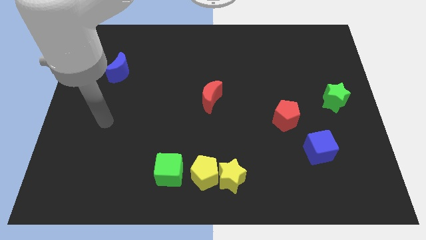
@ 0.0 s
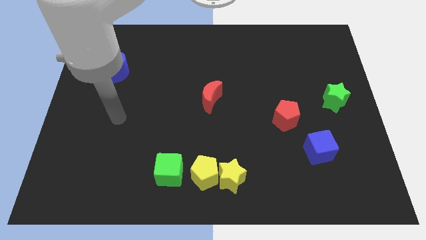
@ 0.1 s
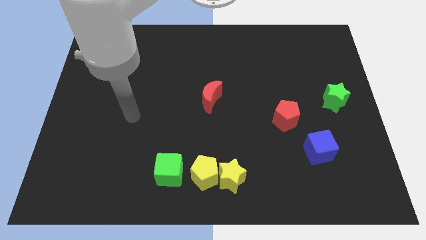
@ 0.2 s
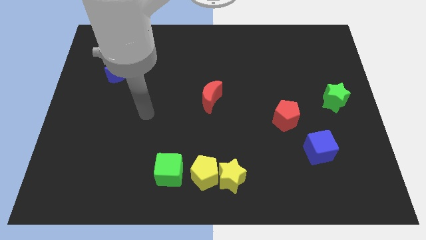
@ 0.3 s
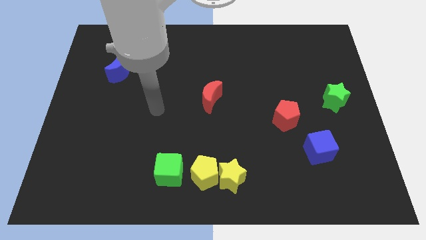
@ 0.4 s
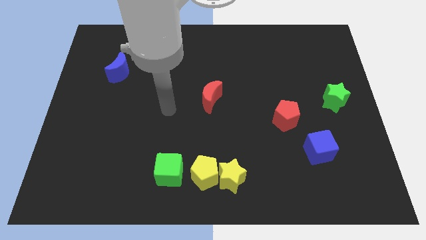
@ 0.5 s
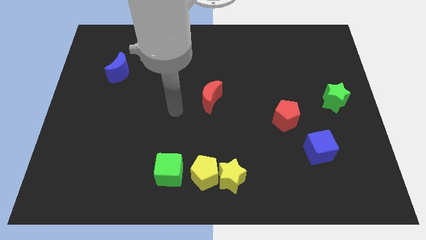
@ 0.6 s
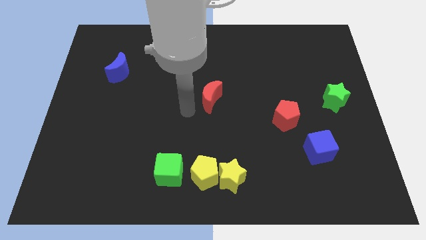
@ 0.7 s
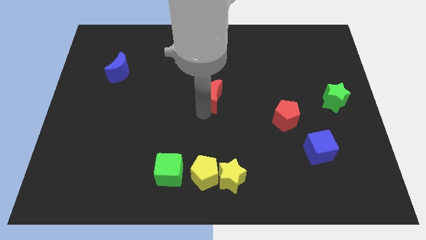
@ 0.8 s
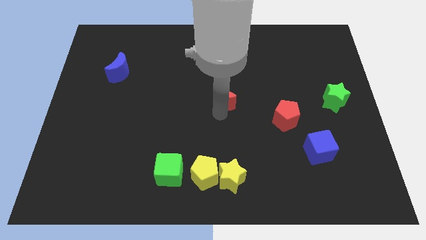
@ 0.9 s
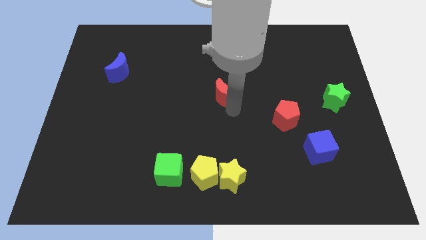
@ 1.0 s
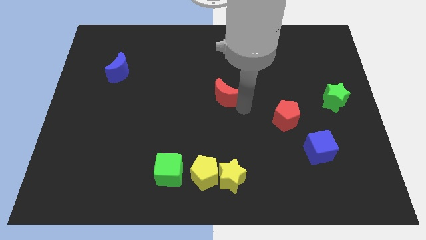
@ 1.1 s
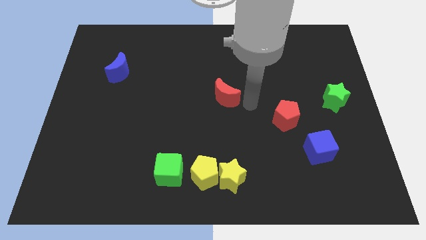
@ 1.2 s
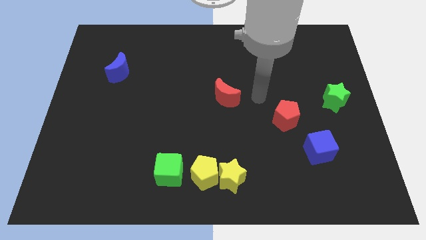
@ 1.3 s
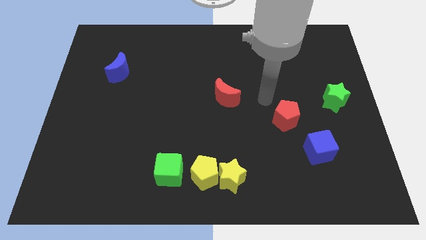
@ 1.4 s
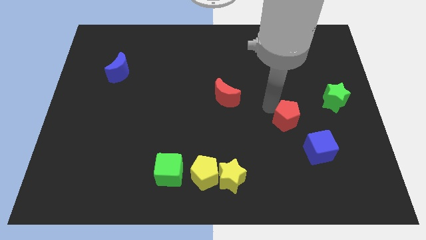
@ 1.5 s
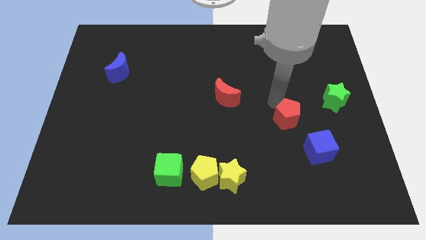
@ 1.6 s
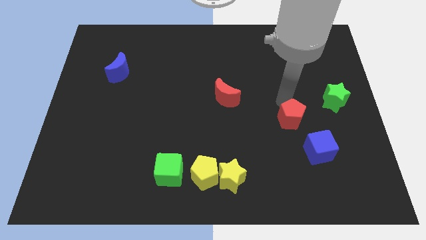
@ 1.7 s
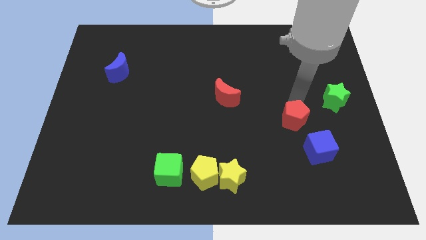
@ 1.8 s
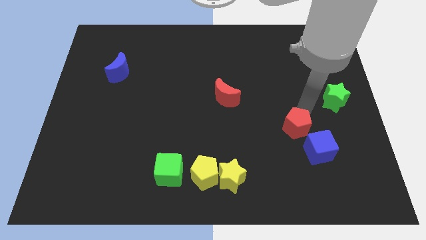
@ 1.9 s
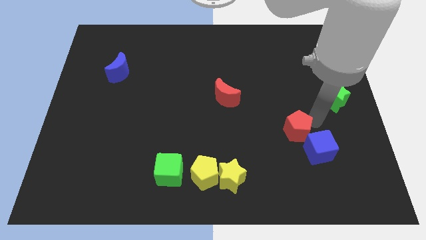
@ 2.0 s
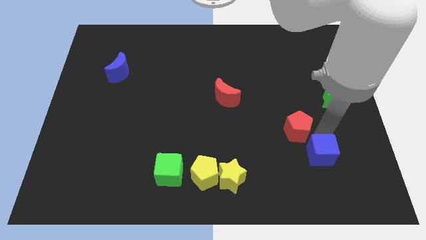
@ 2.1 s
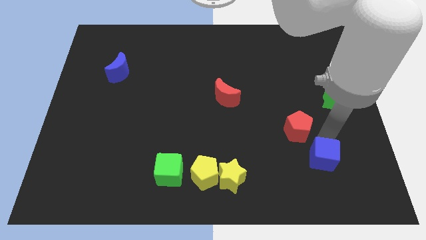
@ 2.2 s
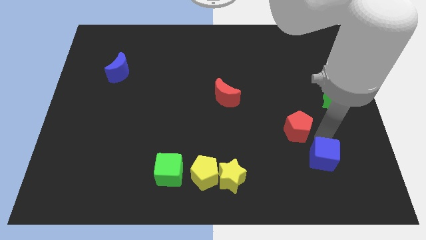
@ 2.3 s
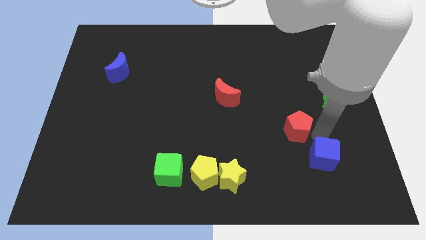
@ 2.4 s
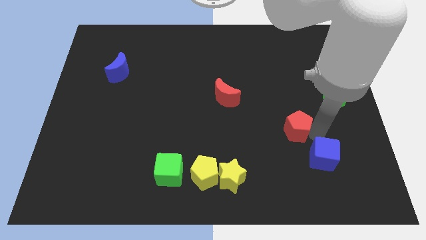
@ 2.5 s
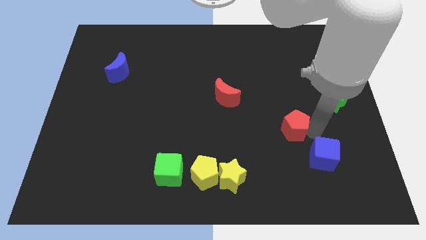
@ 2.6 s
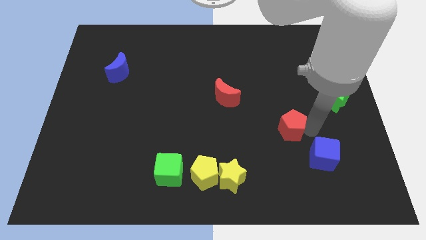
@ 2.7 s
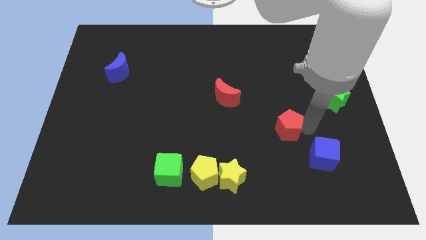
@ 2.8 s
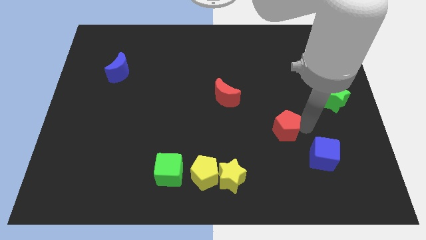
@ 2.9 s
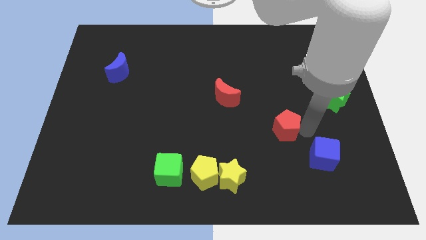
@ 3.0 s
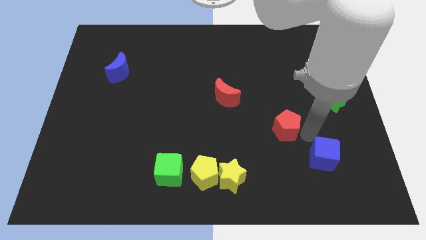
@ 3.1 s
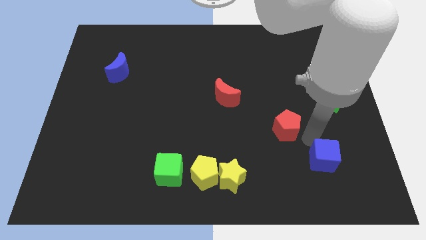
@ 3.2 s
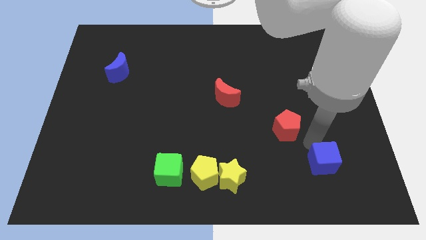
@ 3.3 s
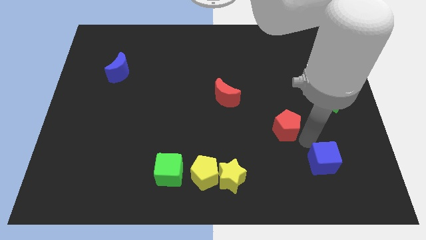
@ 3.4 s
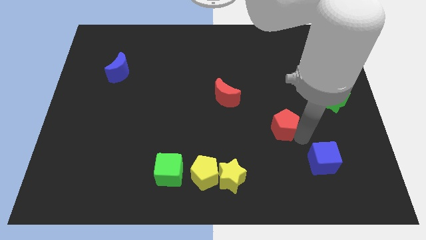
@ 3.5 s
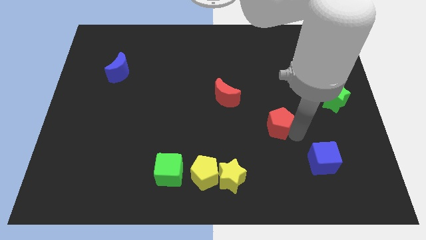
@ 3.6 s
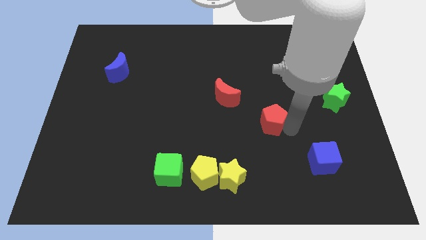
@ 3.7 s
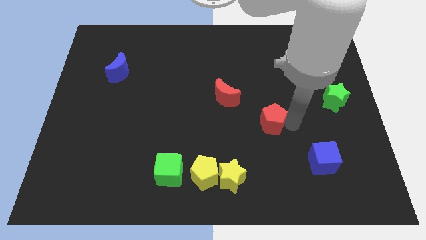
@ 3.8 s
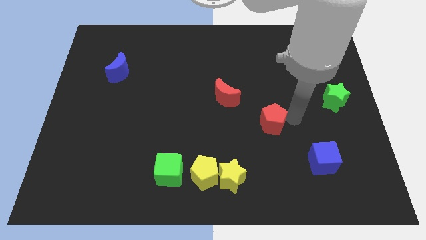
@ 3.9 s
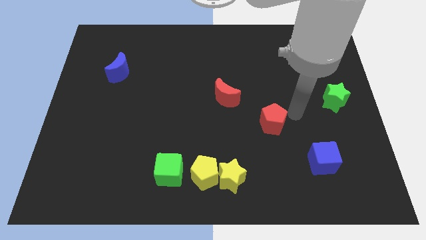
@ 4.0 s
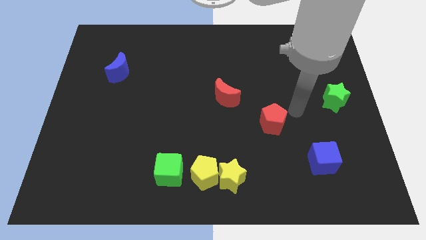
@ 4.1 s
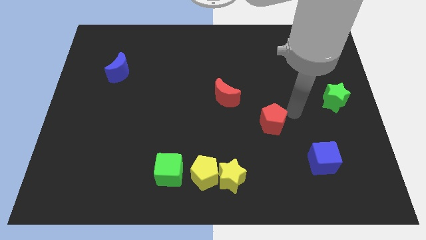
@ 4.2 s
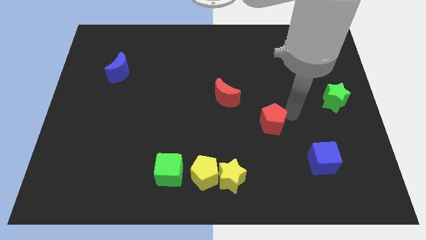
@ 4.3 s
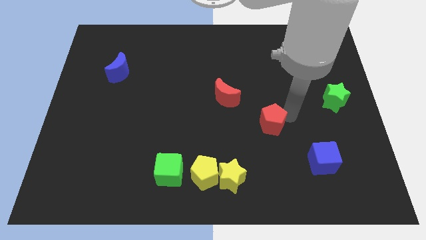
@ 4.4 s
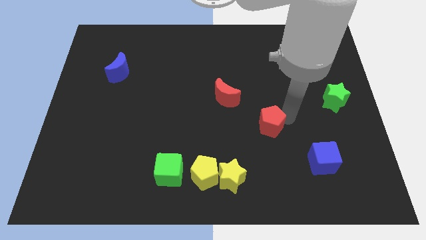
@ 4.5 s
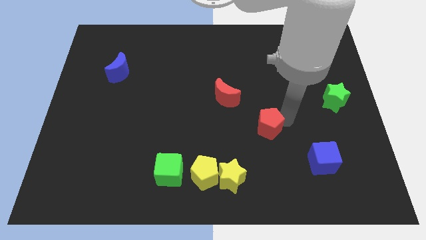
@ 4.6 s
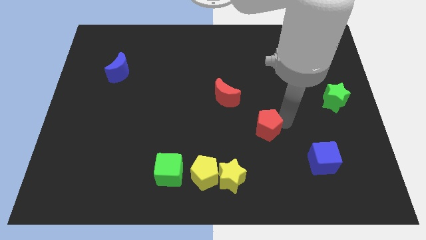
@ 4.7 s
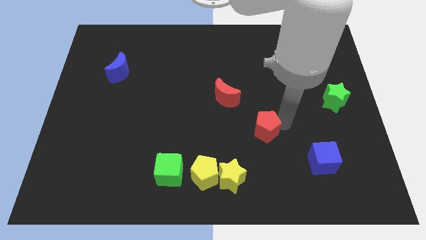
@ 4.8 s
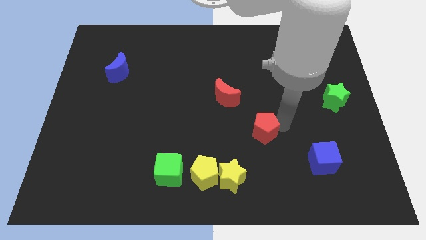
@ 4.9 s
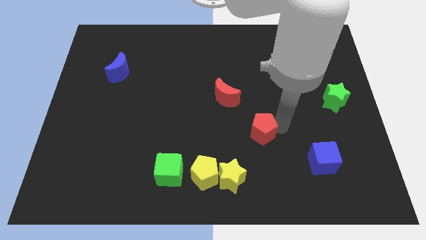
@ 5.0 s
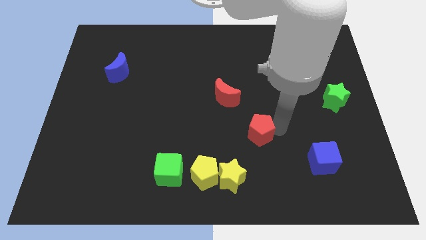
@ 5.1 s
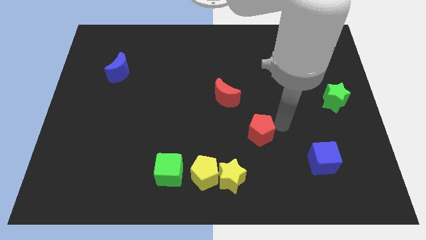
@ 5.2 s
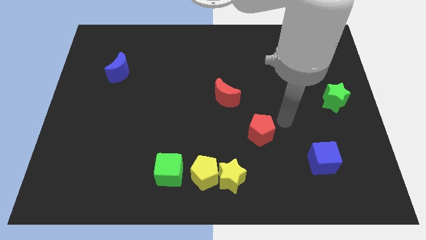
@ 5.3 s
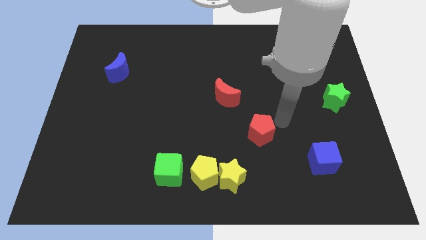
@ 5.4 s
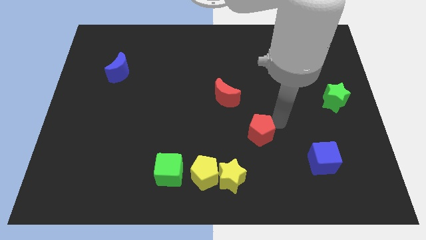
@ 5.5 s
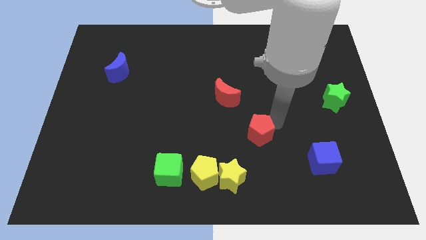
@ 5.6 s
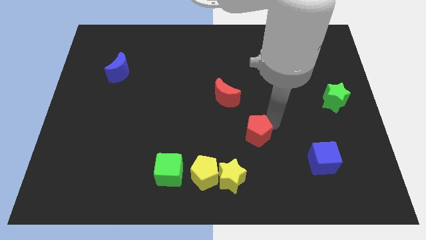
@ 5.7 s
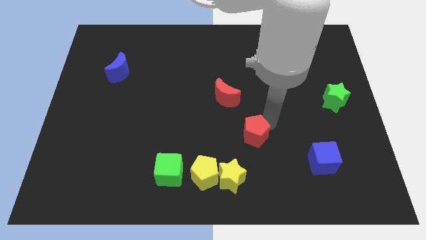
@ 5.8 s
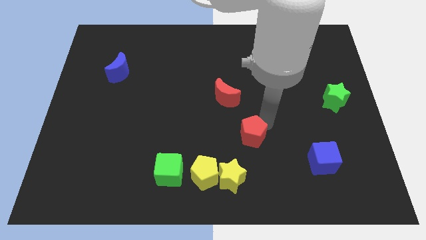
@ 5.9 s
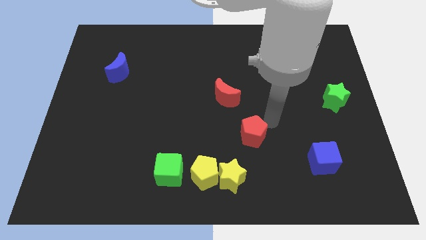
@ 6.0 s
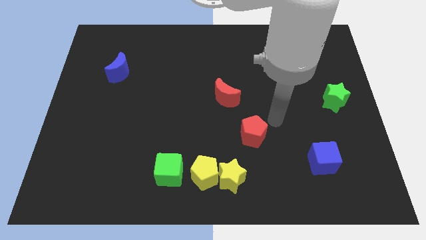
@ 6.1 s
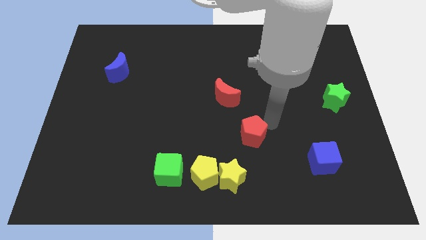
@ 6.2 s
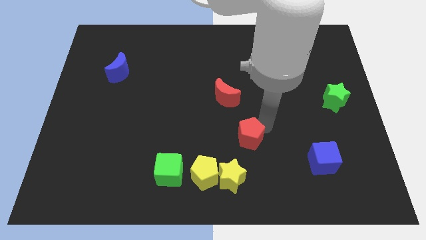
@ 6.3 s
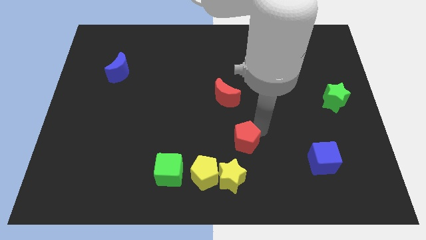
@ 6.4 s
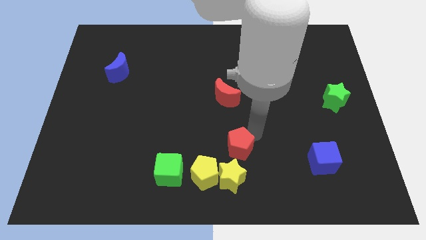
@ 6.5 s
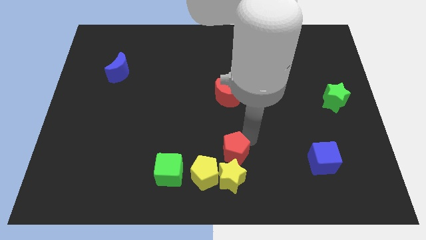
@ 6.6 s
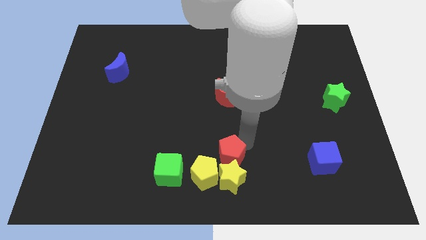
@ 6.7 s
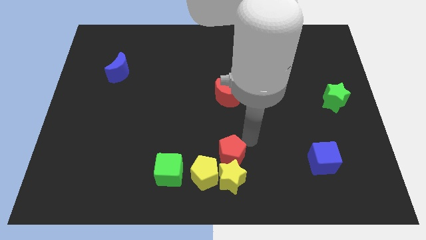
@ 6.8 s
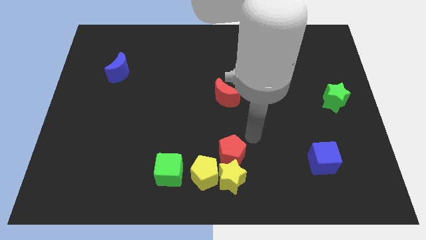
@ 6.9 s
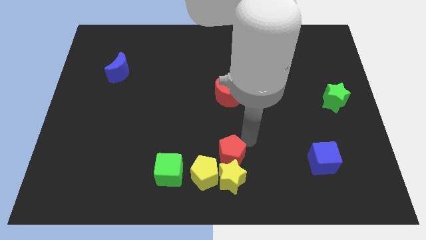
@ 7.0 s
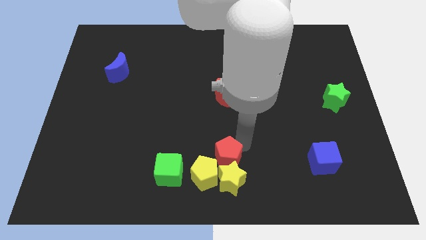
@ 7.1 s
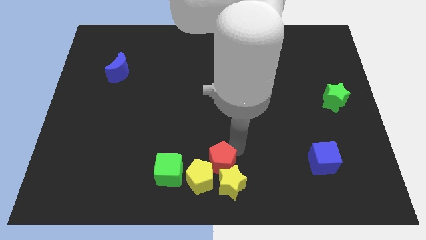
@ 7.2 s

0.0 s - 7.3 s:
slide the red pentagon towards the yellow pentagon
